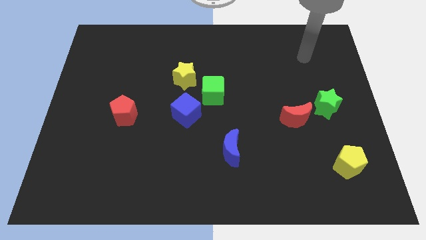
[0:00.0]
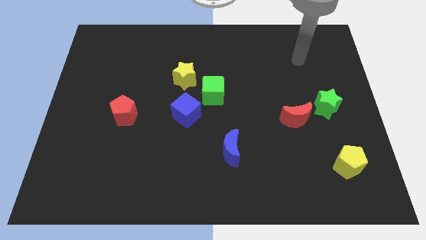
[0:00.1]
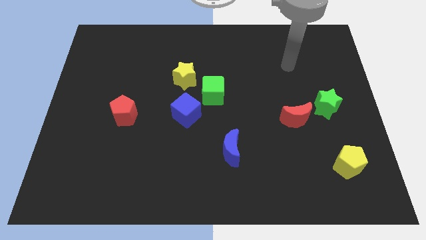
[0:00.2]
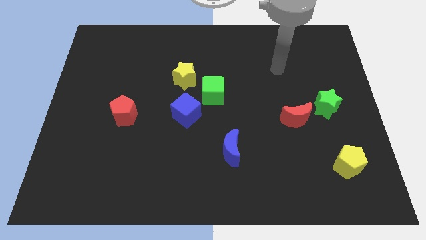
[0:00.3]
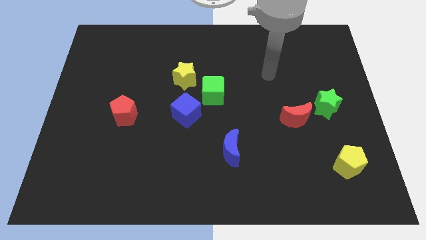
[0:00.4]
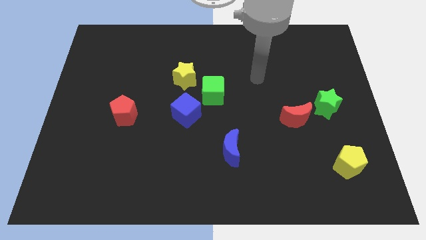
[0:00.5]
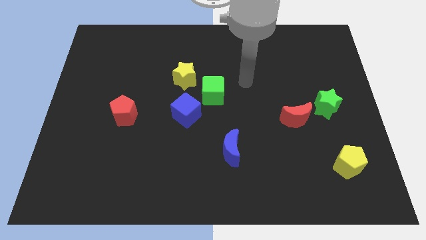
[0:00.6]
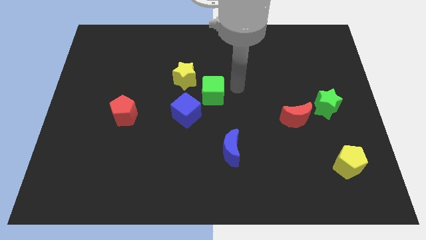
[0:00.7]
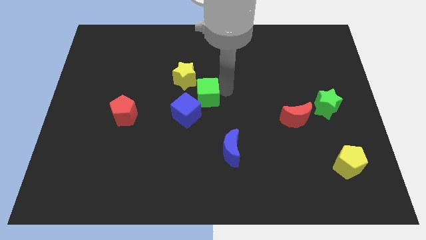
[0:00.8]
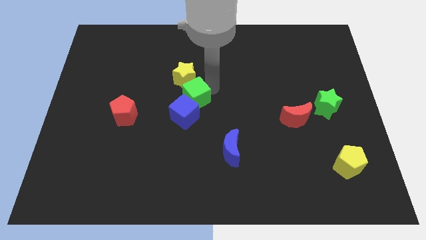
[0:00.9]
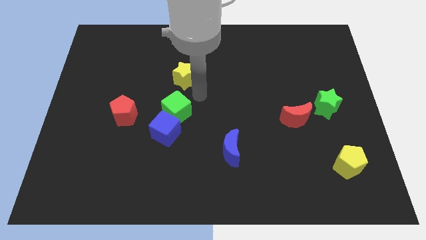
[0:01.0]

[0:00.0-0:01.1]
move the yellow star away from the green cube

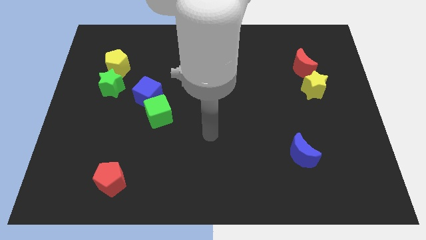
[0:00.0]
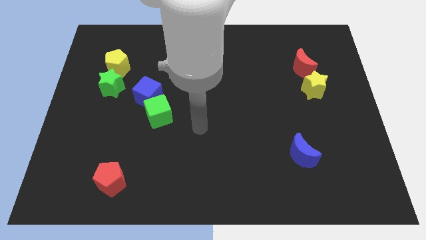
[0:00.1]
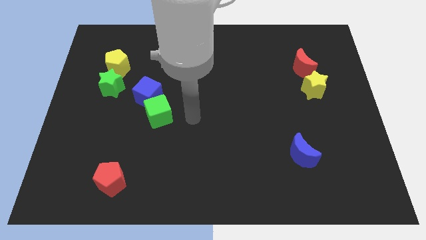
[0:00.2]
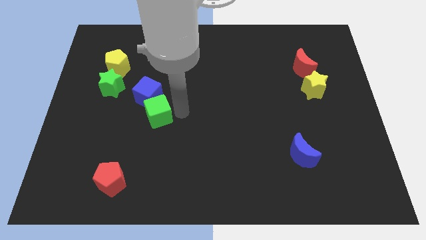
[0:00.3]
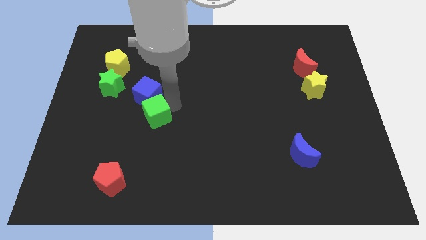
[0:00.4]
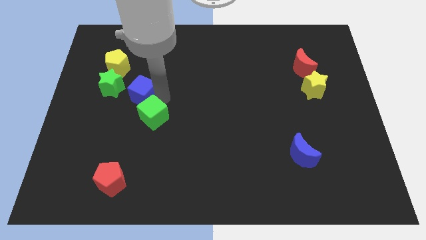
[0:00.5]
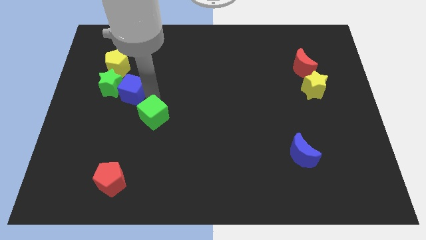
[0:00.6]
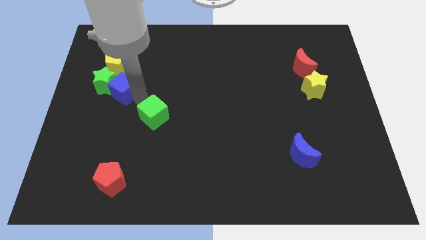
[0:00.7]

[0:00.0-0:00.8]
separate the green cube from the blue cube

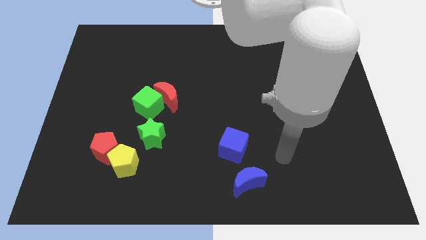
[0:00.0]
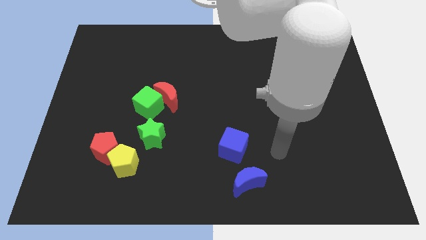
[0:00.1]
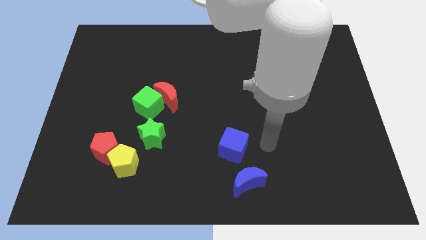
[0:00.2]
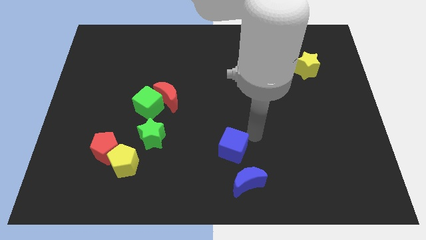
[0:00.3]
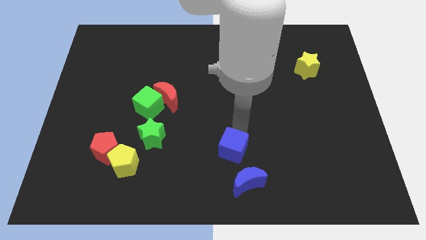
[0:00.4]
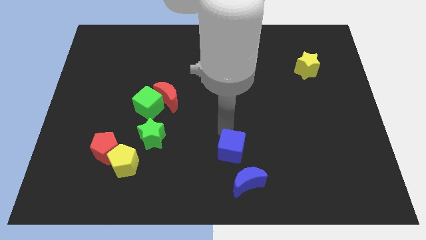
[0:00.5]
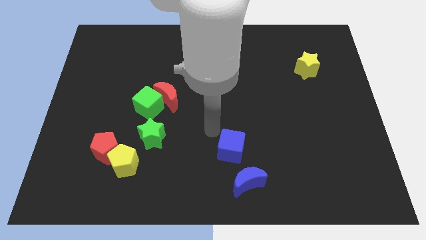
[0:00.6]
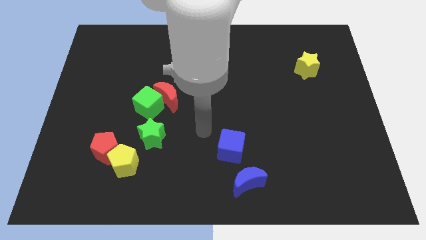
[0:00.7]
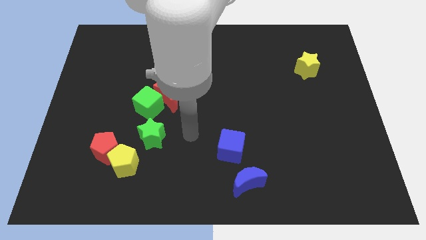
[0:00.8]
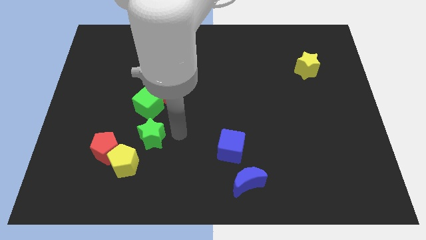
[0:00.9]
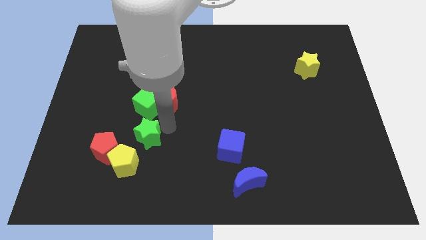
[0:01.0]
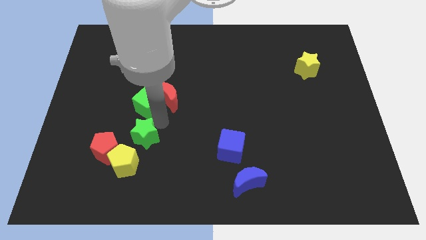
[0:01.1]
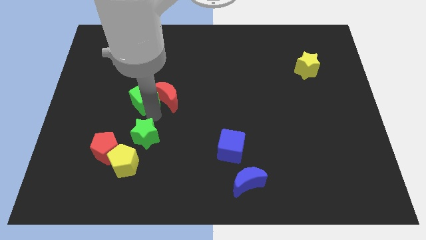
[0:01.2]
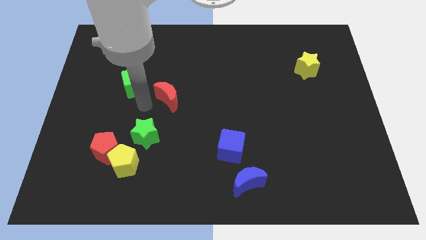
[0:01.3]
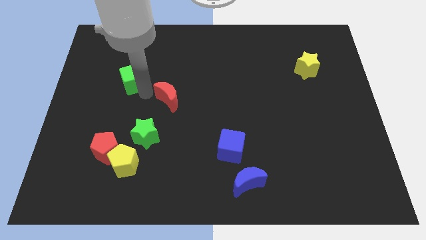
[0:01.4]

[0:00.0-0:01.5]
move the red moon away from the green cube

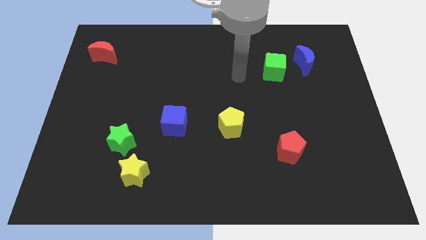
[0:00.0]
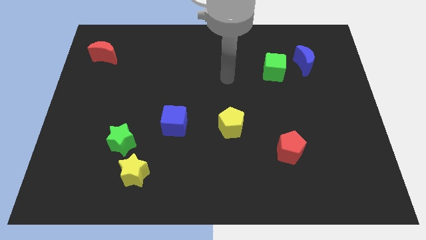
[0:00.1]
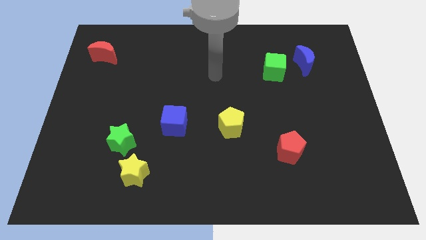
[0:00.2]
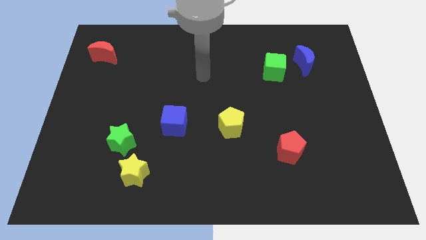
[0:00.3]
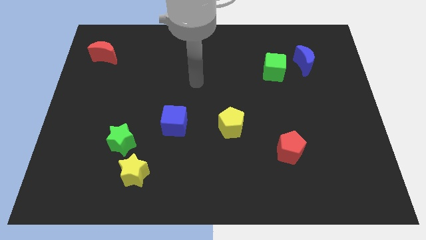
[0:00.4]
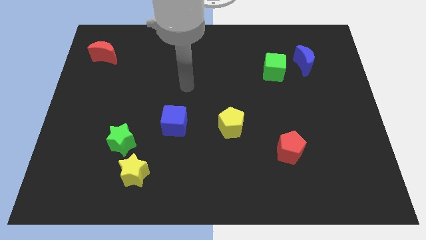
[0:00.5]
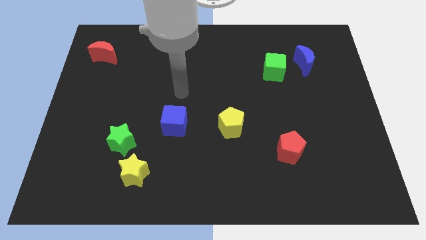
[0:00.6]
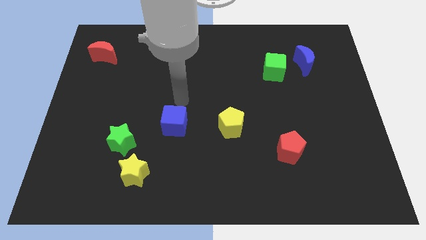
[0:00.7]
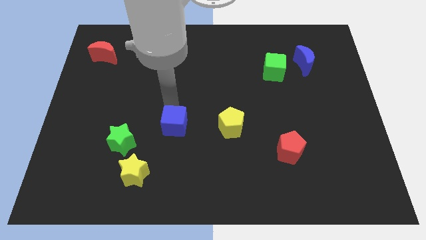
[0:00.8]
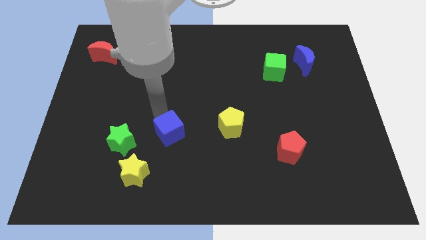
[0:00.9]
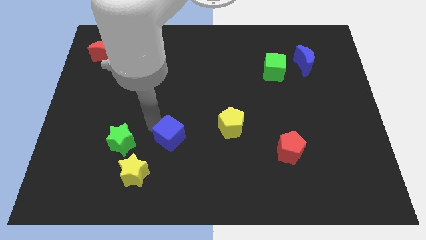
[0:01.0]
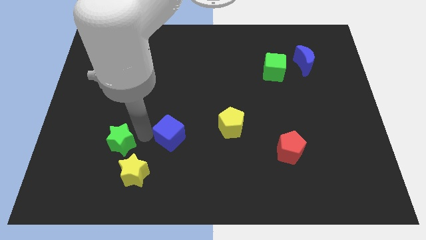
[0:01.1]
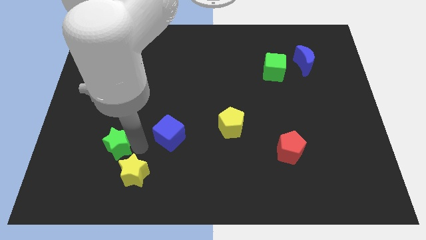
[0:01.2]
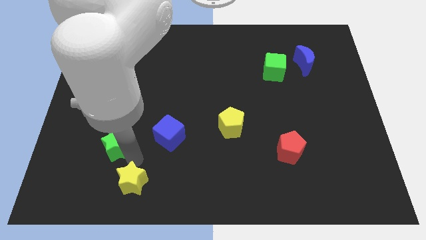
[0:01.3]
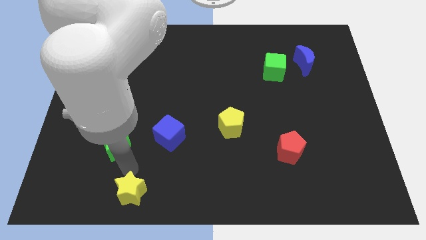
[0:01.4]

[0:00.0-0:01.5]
separate the green star from the yellow star

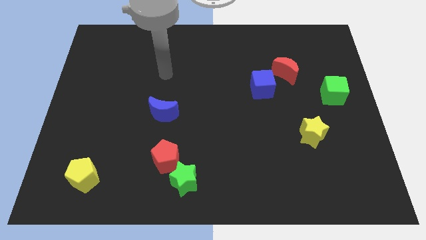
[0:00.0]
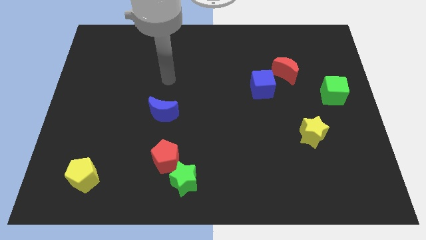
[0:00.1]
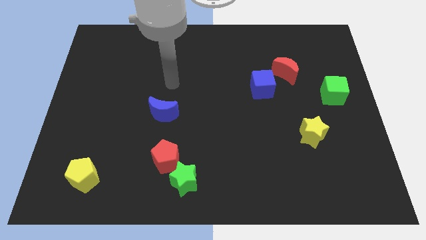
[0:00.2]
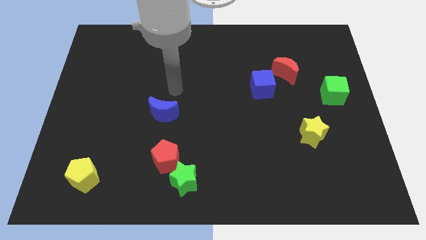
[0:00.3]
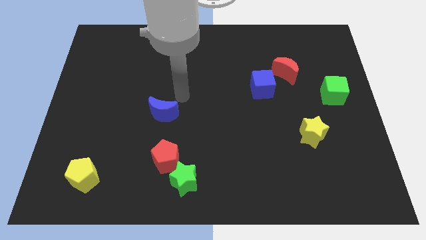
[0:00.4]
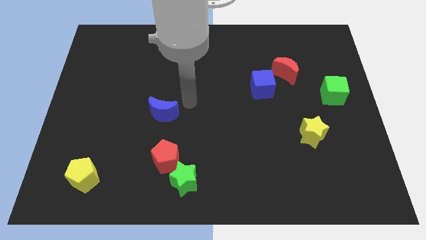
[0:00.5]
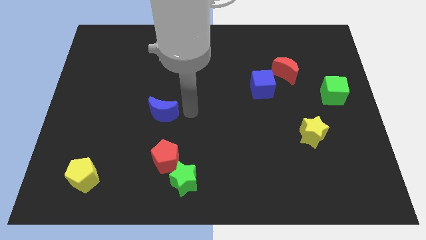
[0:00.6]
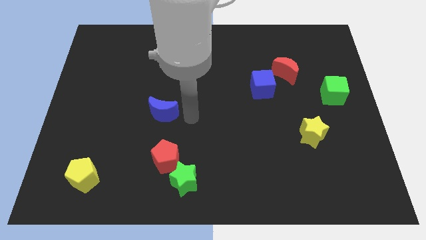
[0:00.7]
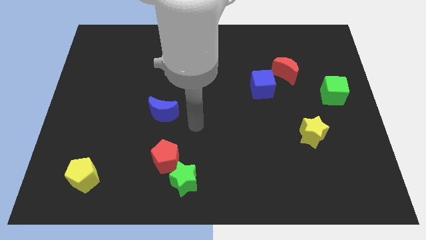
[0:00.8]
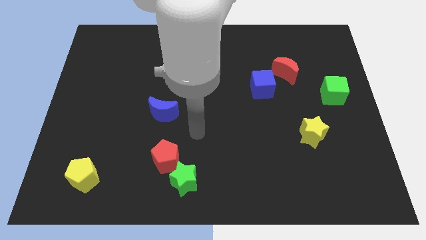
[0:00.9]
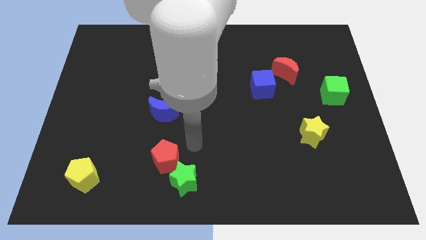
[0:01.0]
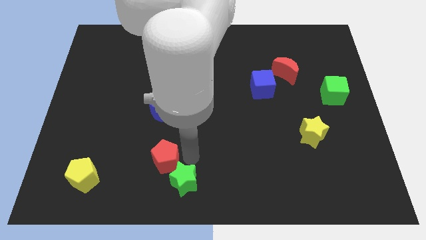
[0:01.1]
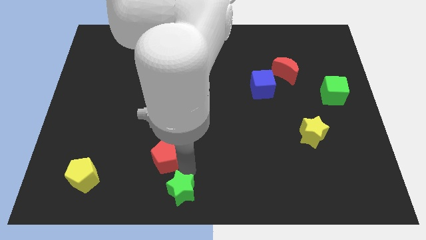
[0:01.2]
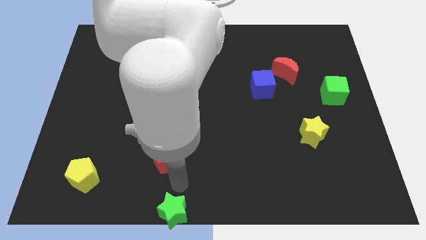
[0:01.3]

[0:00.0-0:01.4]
pull the red pentagon apart from the green star

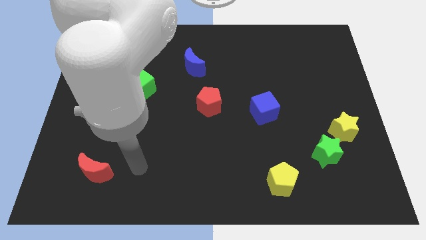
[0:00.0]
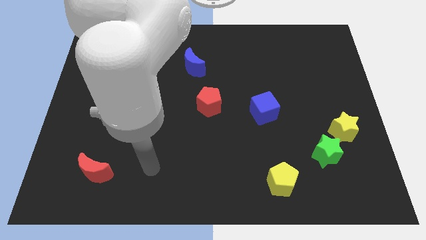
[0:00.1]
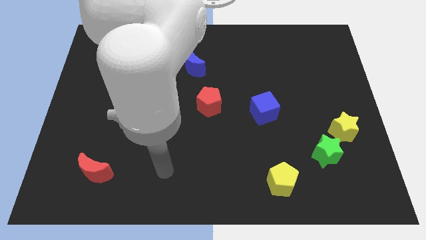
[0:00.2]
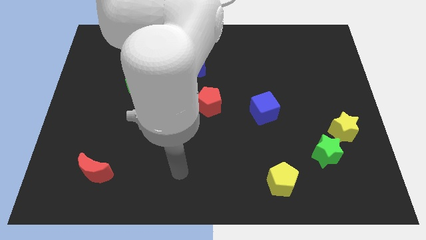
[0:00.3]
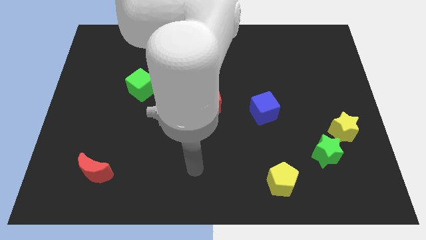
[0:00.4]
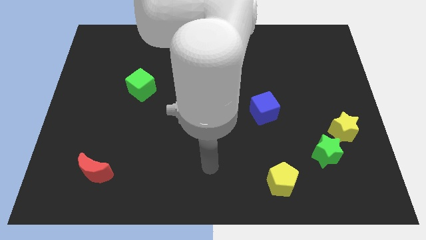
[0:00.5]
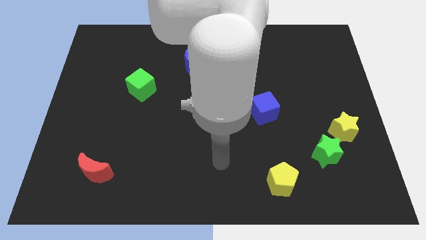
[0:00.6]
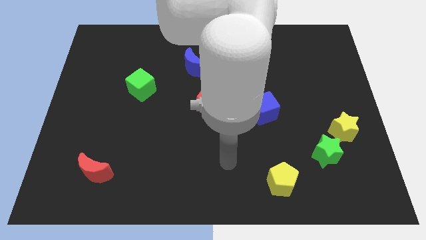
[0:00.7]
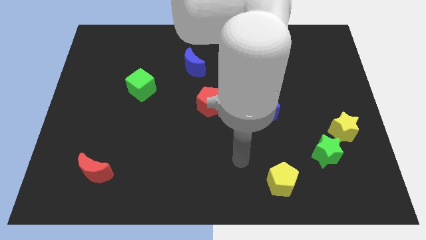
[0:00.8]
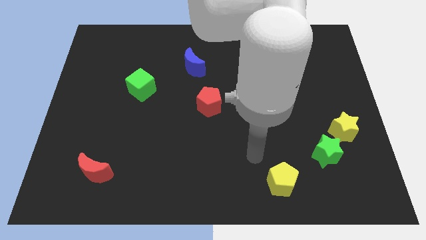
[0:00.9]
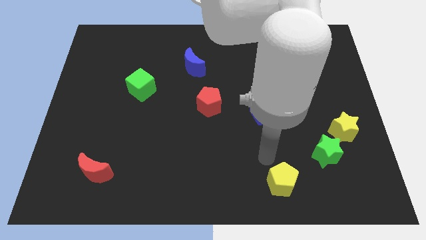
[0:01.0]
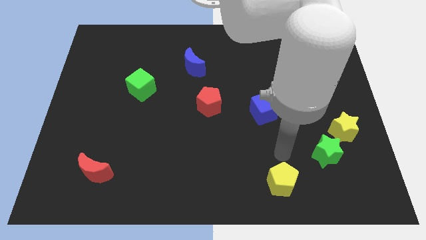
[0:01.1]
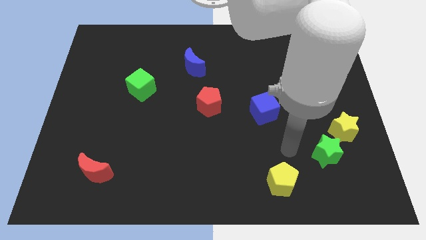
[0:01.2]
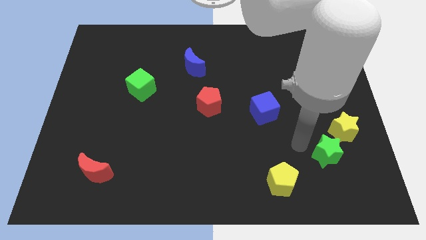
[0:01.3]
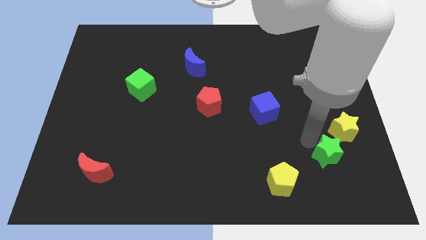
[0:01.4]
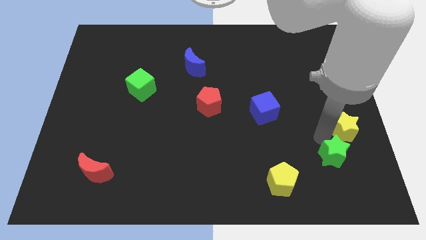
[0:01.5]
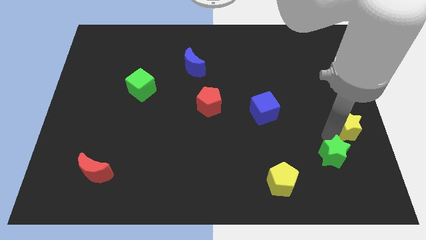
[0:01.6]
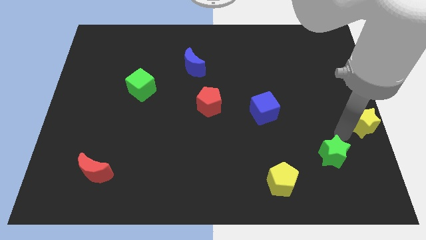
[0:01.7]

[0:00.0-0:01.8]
move the green star away from the yellow star

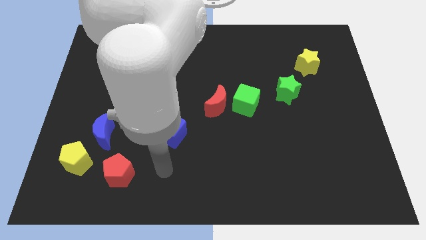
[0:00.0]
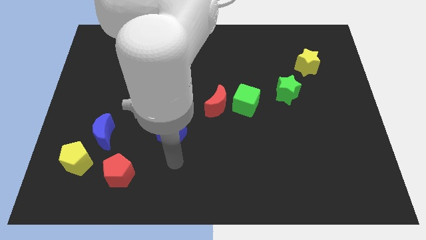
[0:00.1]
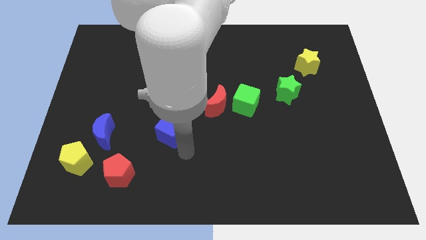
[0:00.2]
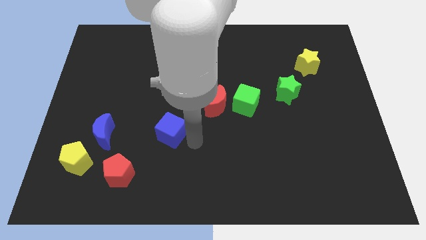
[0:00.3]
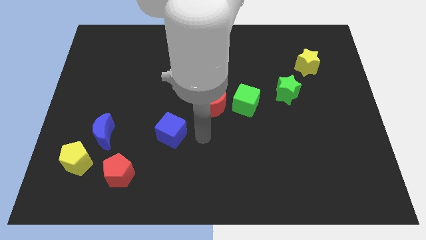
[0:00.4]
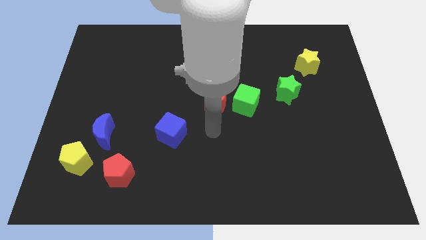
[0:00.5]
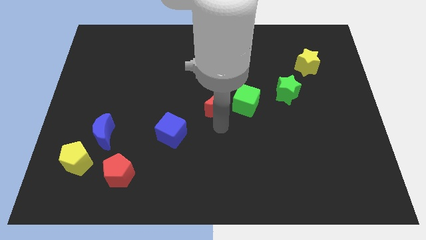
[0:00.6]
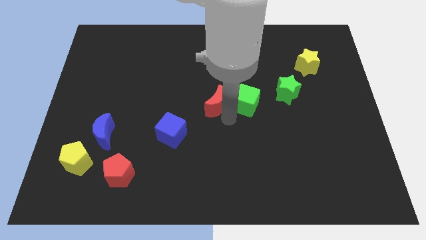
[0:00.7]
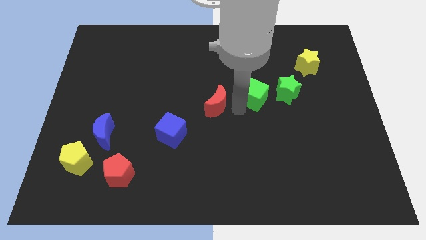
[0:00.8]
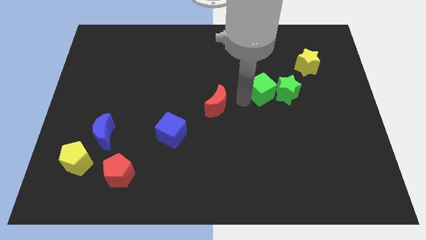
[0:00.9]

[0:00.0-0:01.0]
pull the red moon apart from the green cube

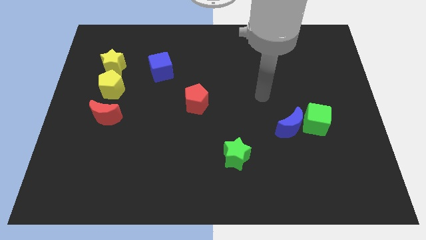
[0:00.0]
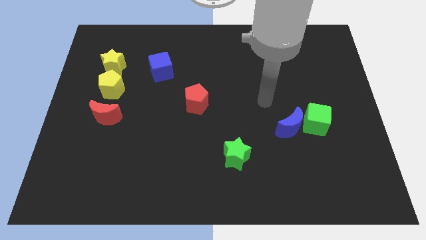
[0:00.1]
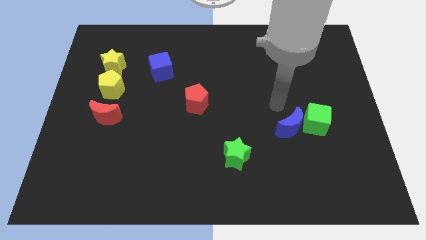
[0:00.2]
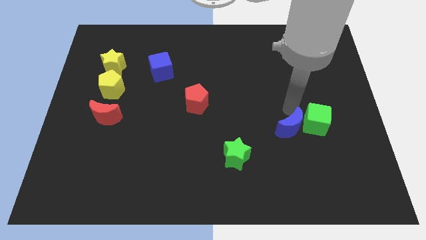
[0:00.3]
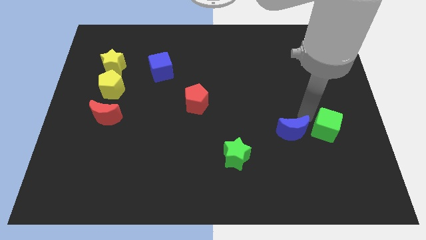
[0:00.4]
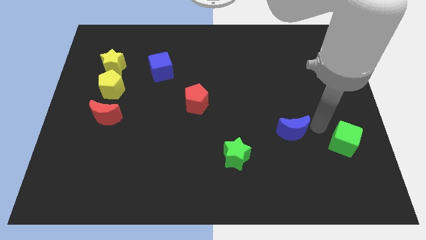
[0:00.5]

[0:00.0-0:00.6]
move the blue moon away from the green cube
